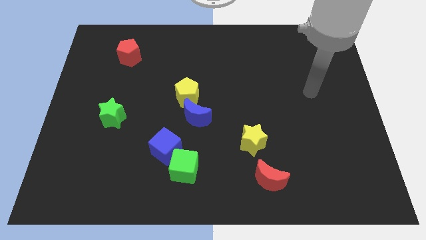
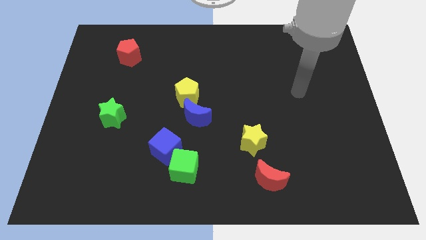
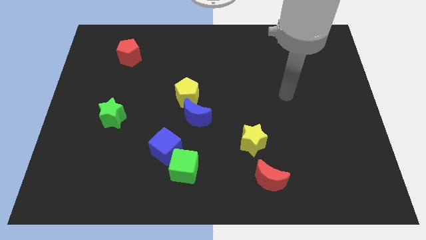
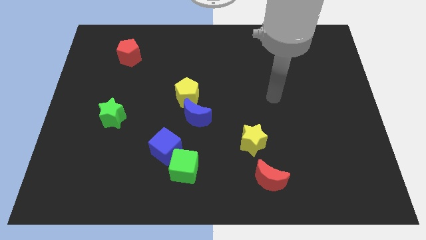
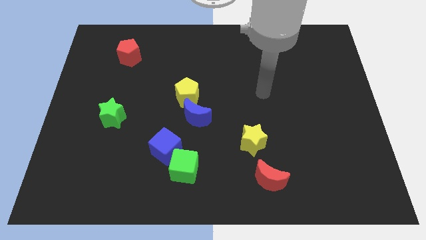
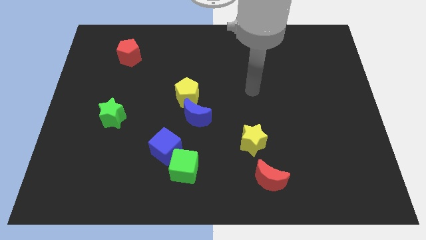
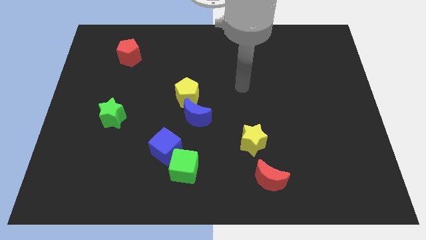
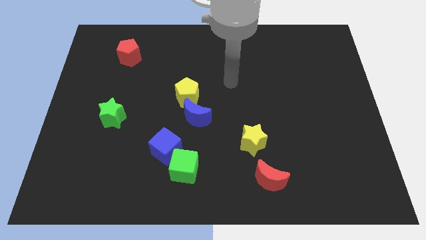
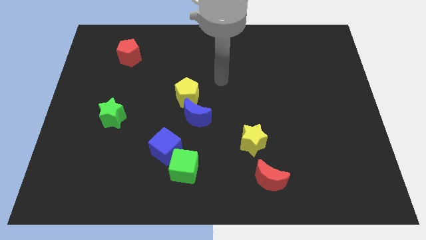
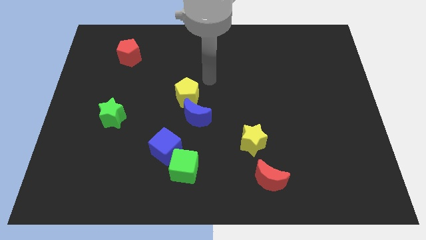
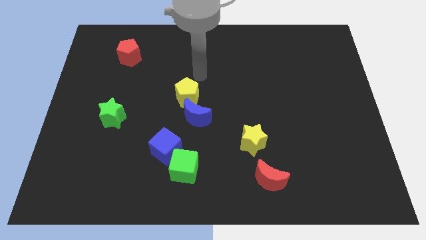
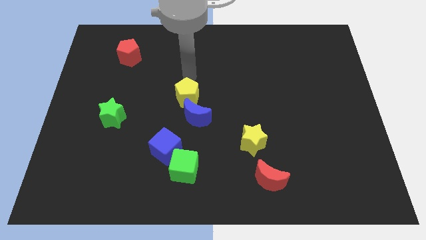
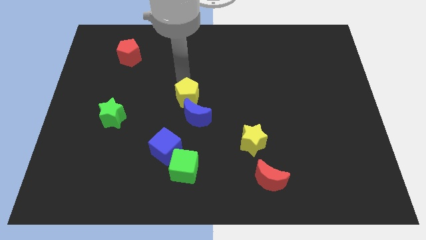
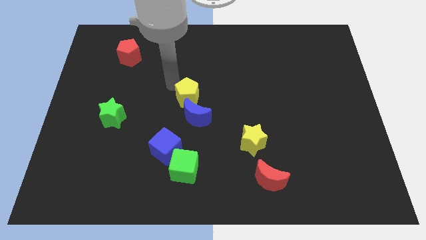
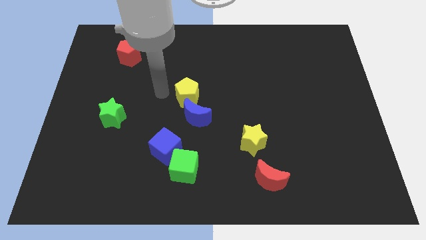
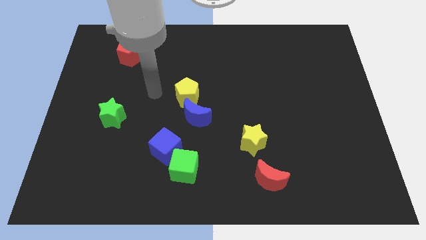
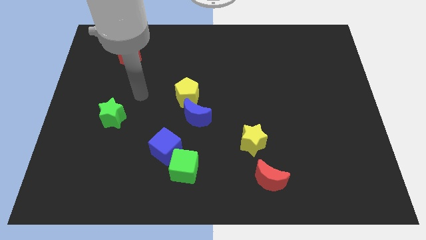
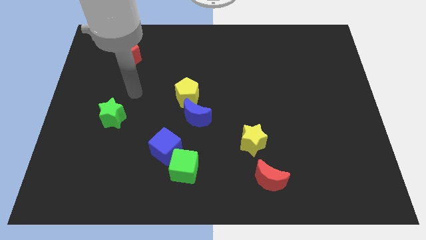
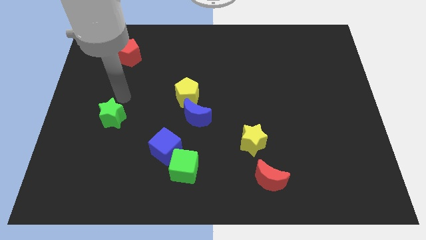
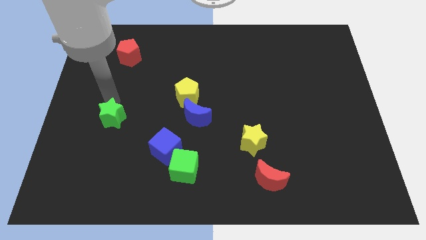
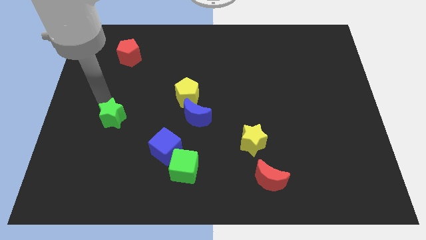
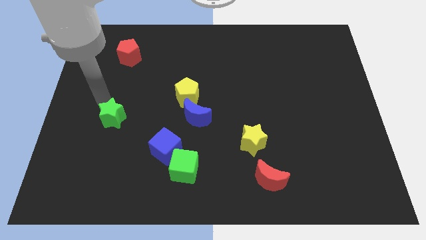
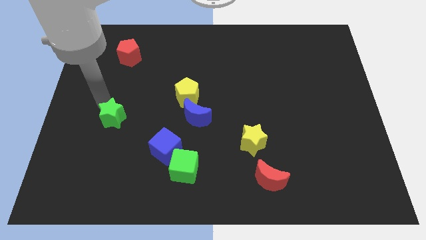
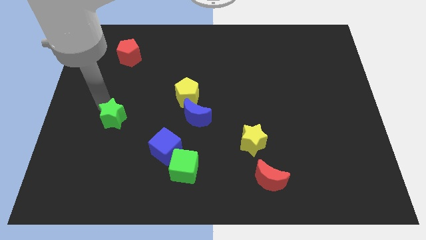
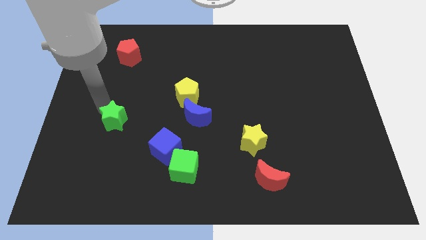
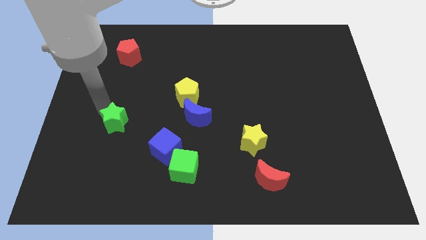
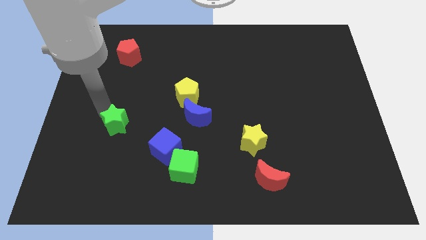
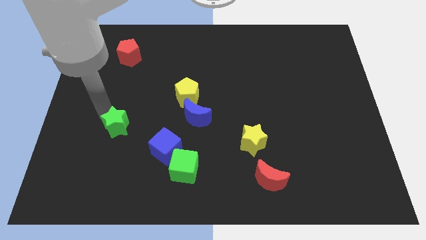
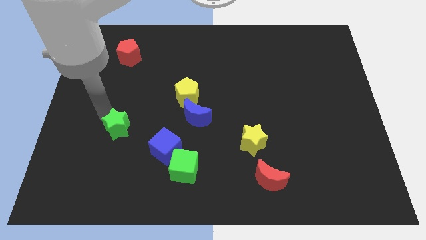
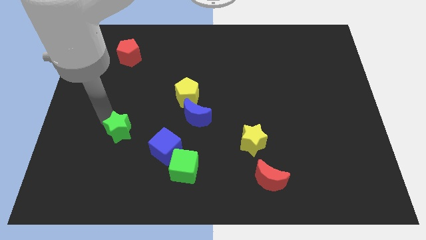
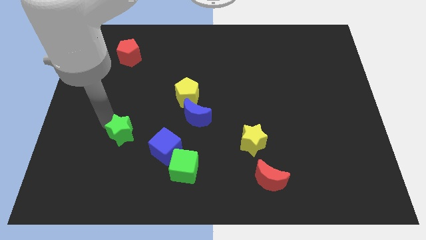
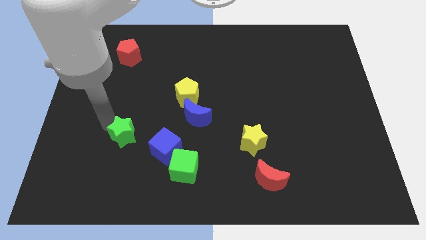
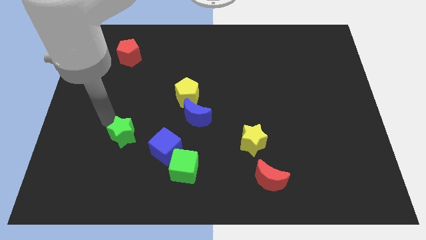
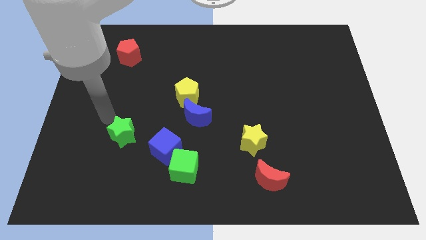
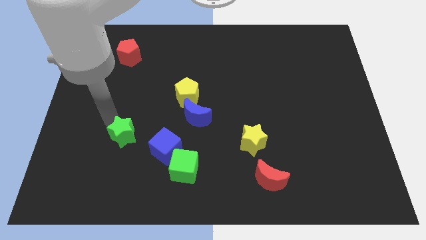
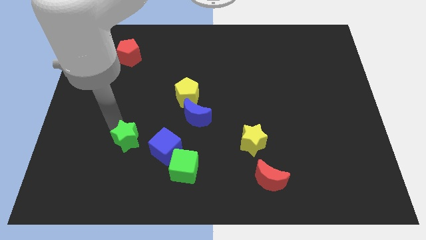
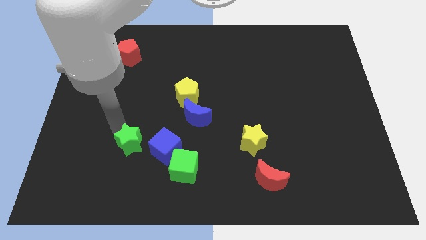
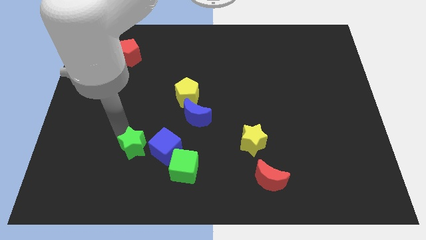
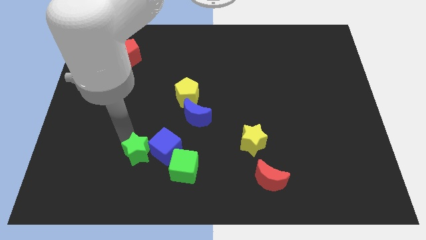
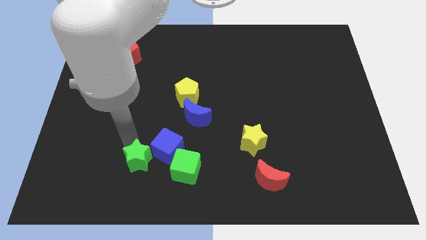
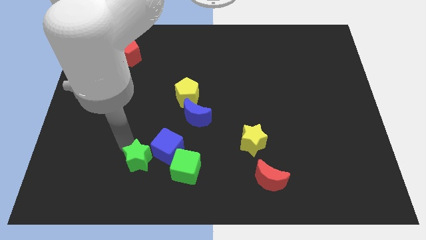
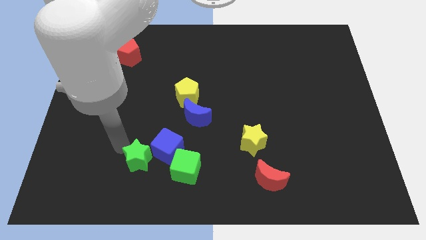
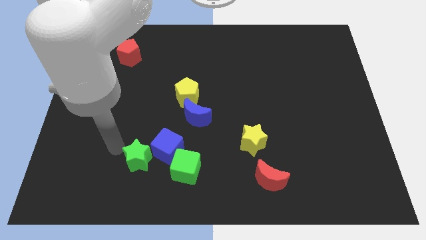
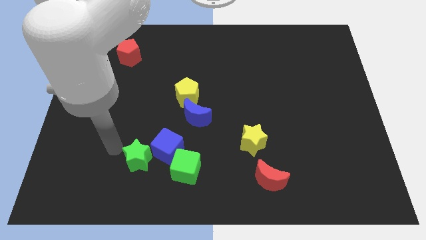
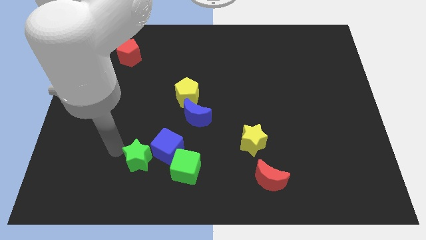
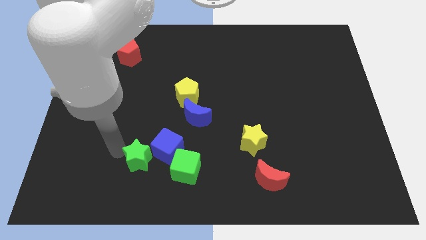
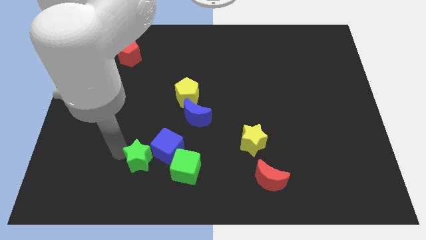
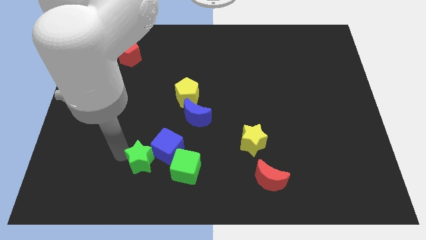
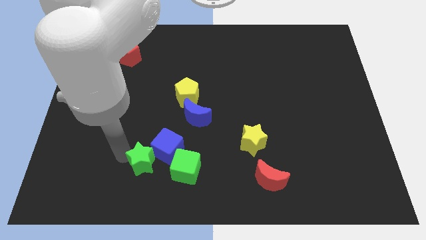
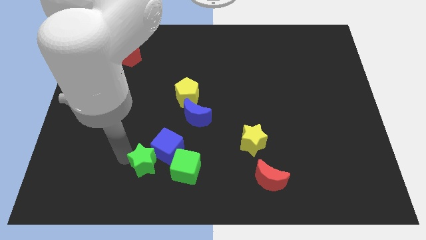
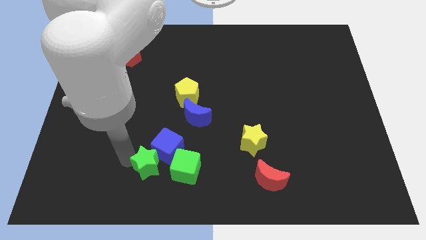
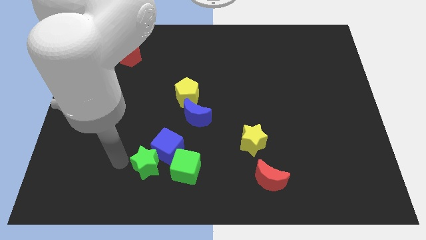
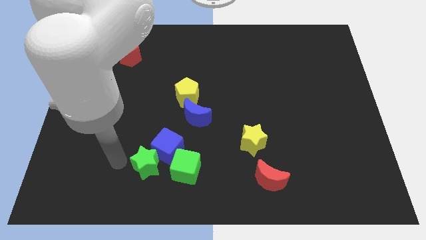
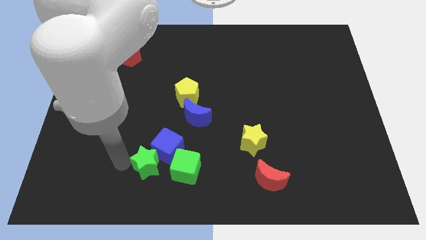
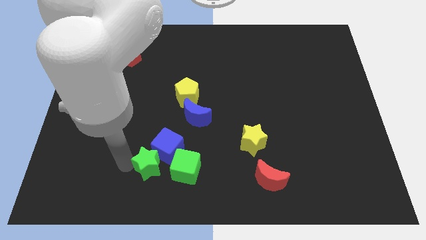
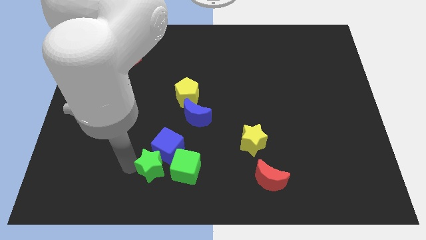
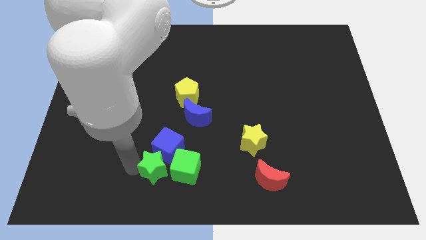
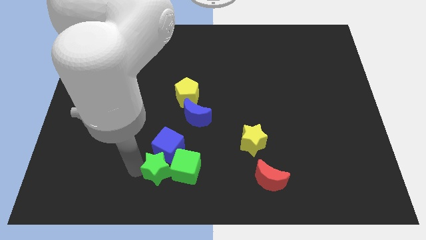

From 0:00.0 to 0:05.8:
put the green star close to the green cube
